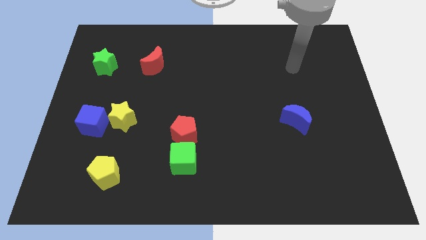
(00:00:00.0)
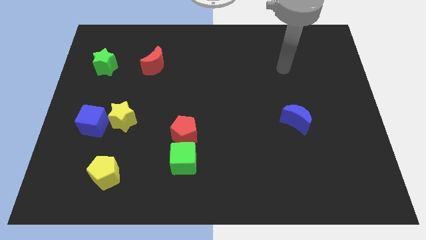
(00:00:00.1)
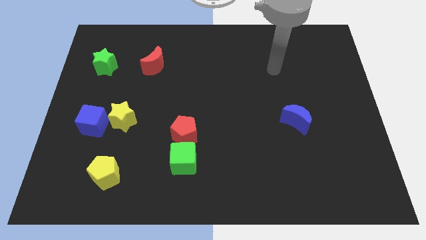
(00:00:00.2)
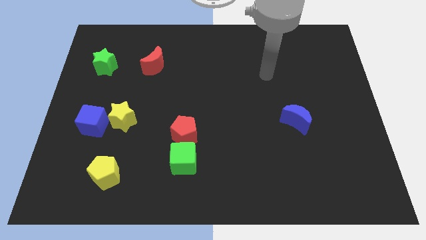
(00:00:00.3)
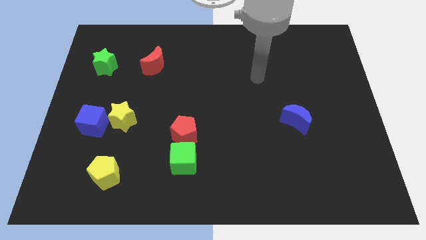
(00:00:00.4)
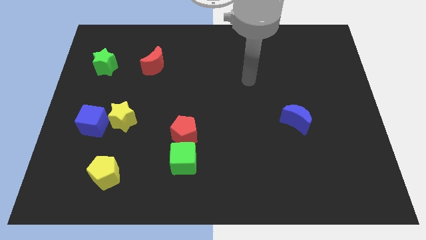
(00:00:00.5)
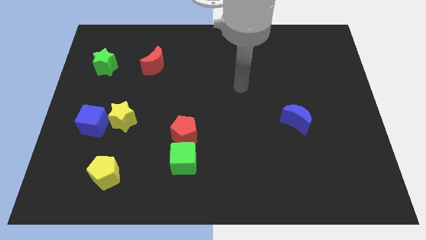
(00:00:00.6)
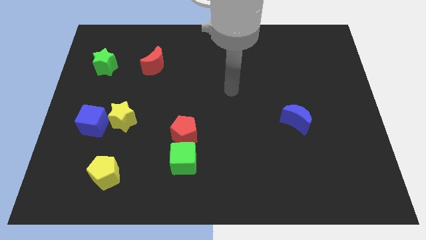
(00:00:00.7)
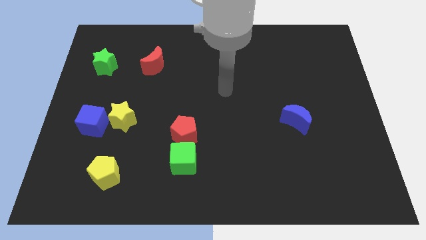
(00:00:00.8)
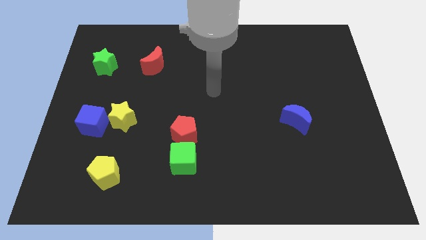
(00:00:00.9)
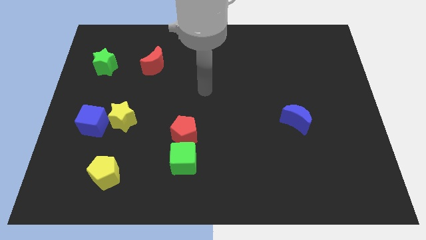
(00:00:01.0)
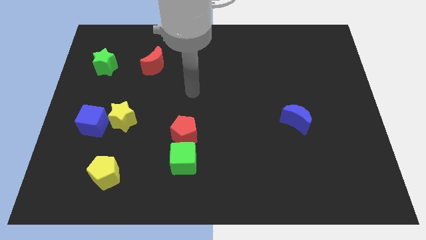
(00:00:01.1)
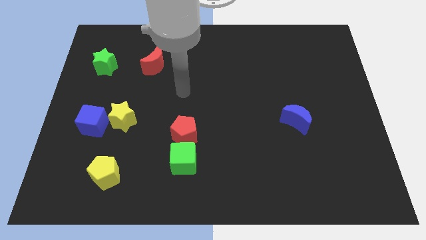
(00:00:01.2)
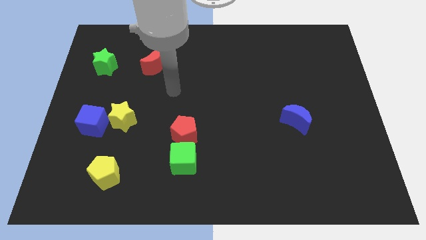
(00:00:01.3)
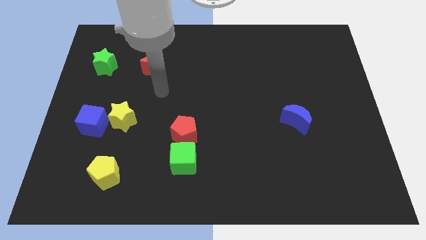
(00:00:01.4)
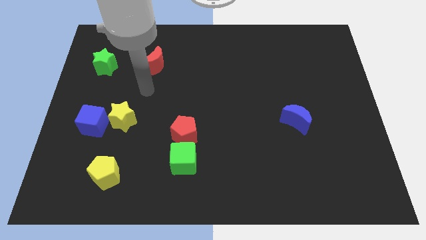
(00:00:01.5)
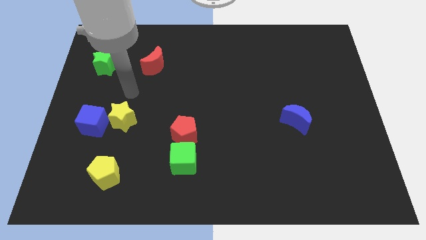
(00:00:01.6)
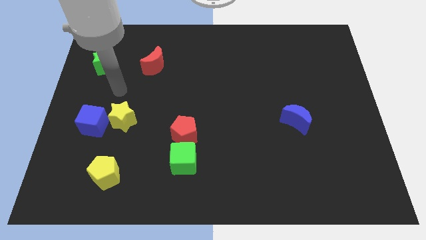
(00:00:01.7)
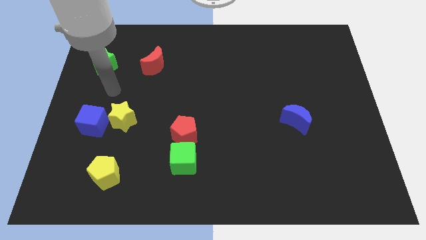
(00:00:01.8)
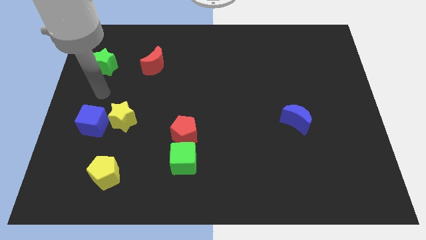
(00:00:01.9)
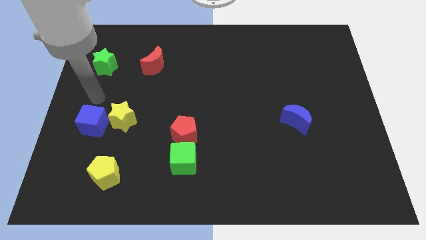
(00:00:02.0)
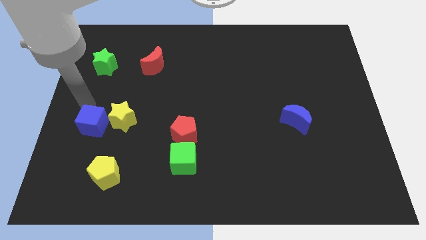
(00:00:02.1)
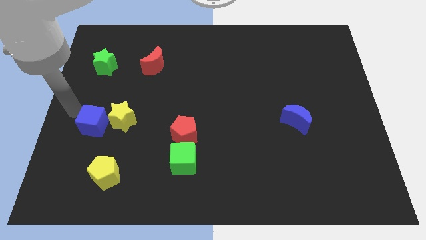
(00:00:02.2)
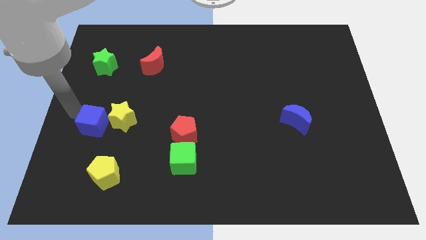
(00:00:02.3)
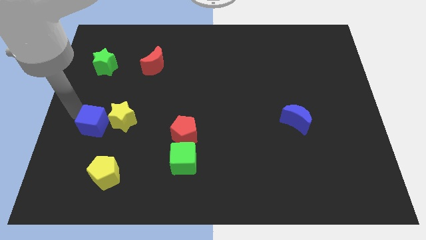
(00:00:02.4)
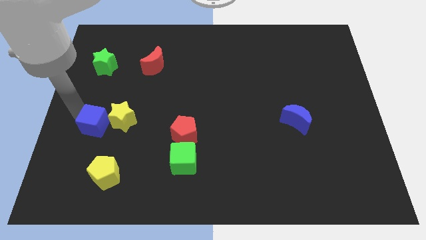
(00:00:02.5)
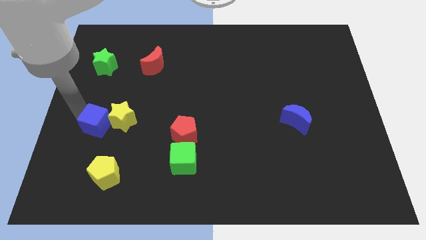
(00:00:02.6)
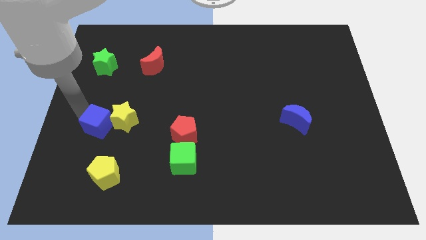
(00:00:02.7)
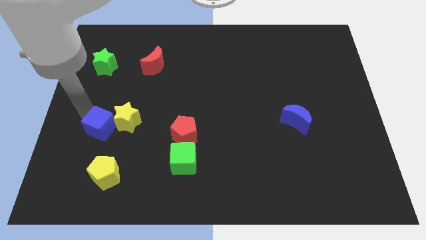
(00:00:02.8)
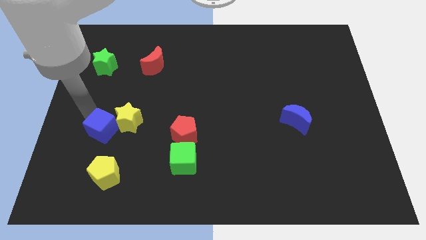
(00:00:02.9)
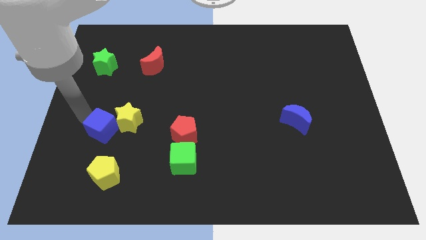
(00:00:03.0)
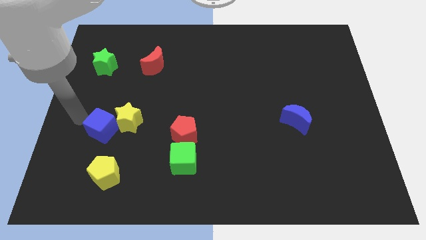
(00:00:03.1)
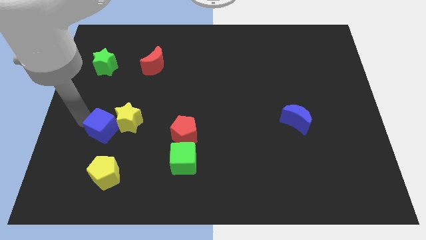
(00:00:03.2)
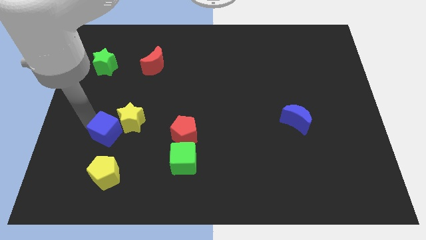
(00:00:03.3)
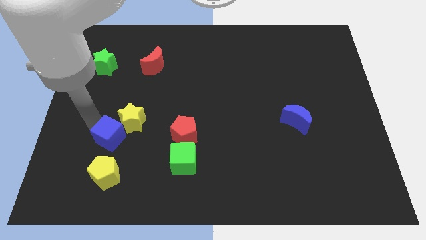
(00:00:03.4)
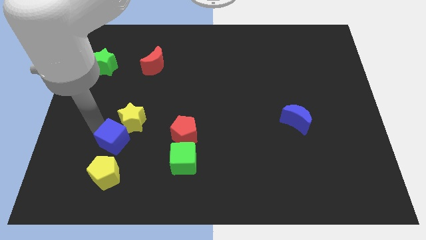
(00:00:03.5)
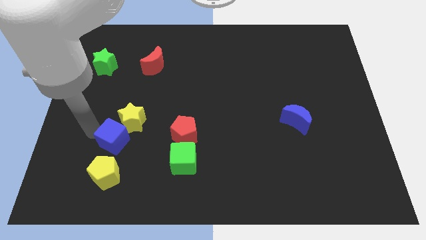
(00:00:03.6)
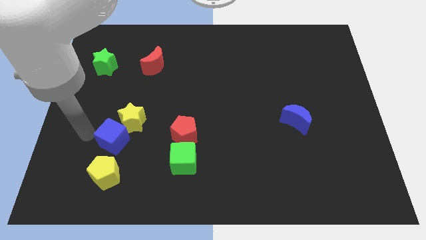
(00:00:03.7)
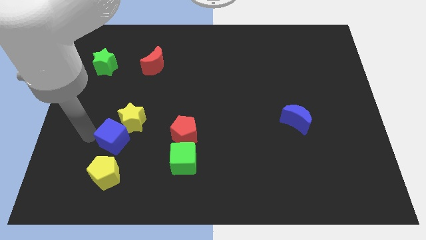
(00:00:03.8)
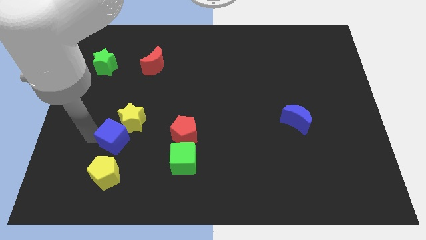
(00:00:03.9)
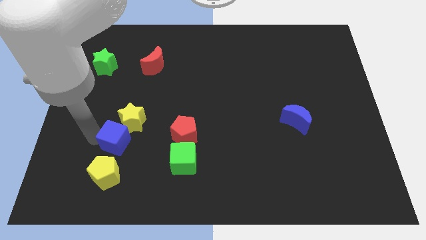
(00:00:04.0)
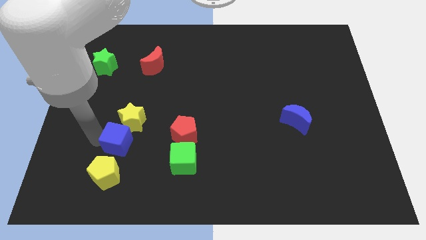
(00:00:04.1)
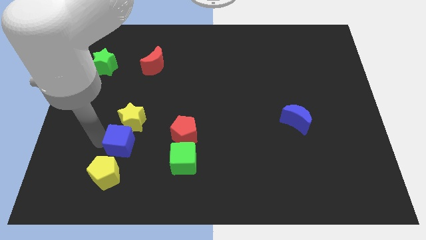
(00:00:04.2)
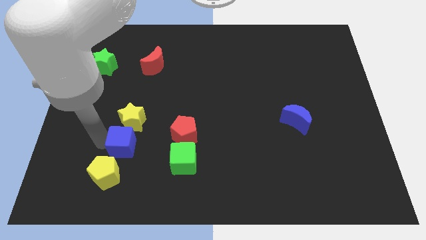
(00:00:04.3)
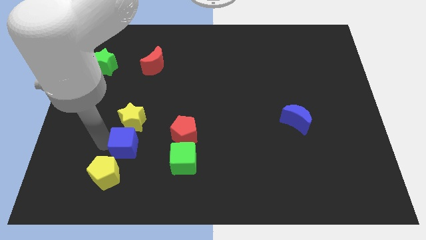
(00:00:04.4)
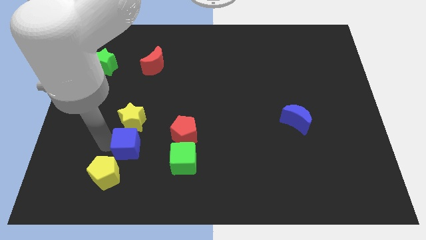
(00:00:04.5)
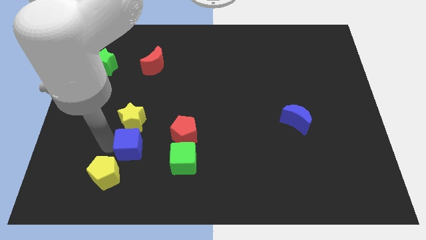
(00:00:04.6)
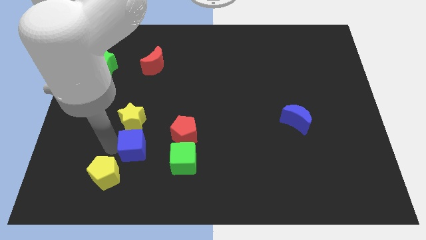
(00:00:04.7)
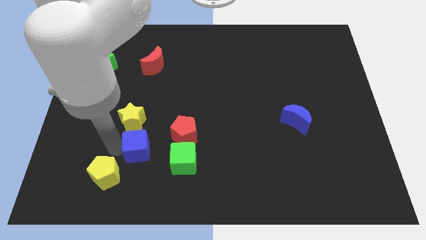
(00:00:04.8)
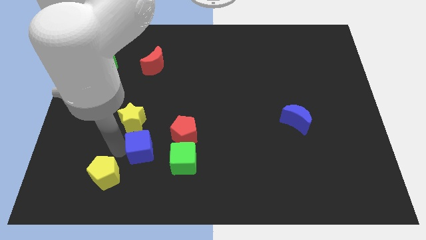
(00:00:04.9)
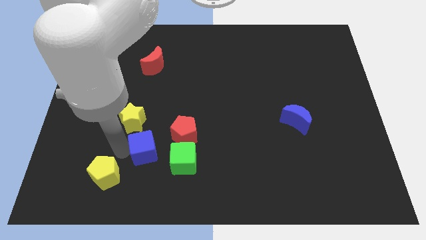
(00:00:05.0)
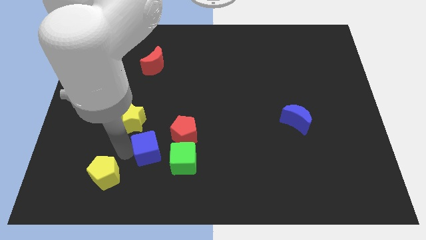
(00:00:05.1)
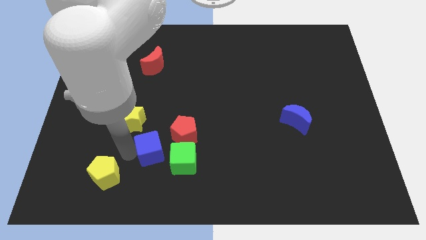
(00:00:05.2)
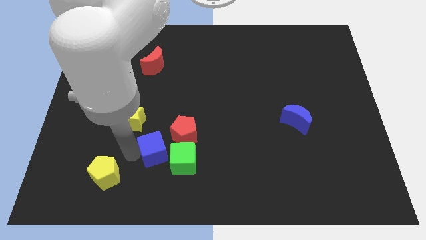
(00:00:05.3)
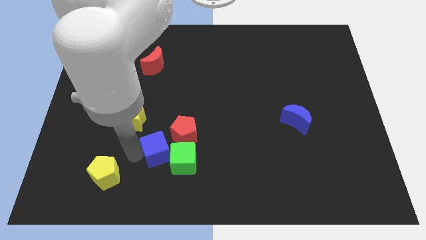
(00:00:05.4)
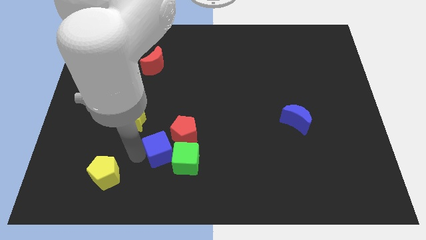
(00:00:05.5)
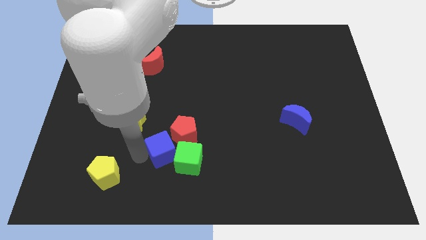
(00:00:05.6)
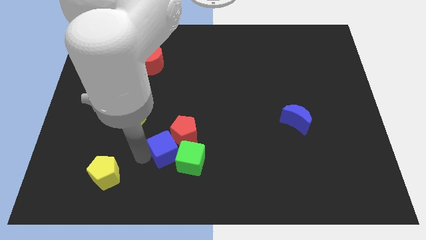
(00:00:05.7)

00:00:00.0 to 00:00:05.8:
slide the blue cube close to the red pentagon

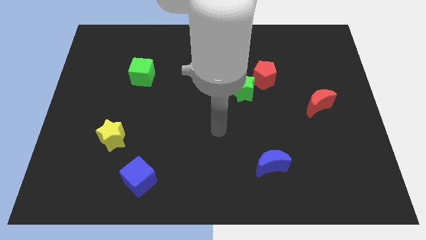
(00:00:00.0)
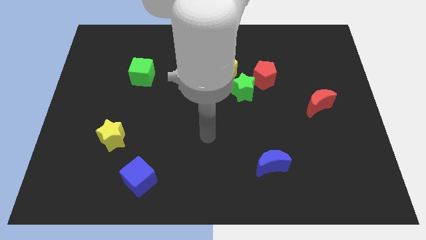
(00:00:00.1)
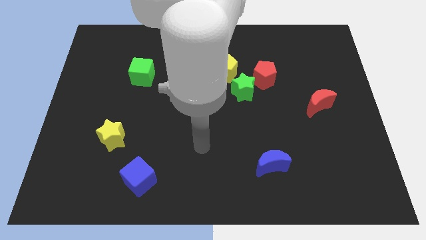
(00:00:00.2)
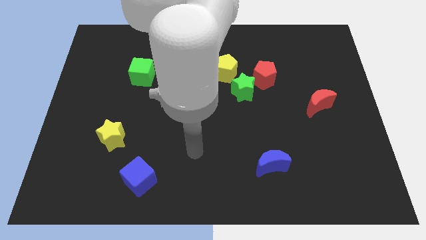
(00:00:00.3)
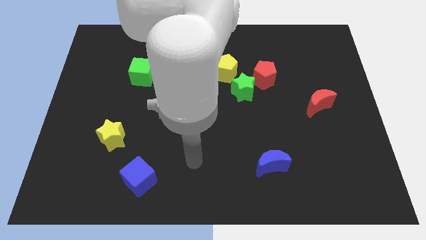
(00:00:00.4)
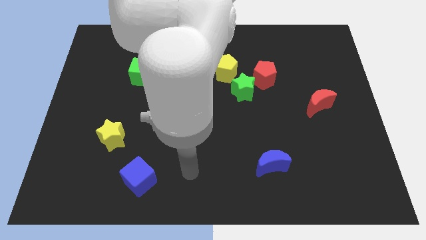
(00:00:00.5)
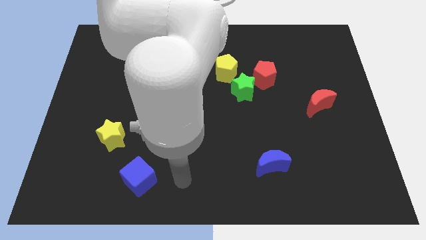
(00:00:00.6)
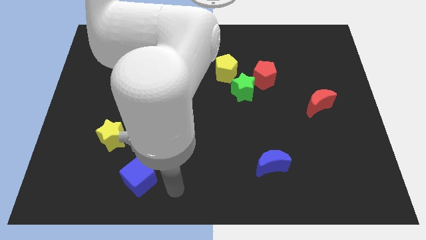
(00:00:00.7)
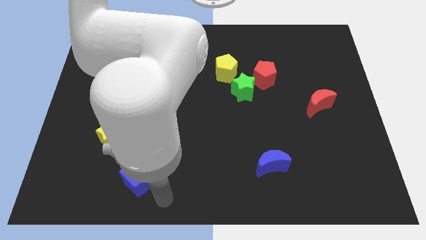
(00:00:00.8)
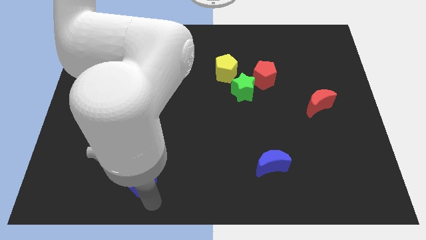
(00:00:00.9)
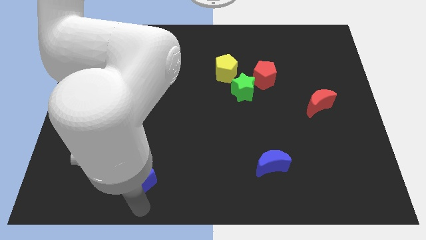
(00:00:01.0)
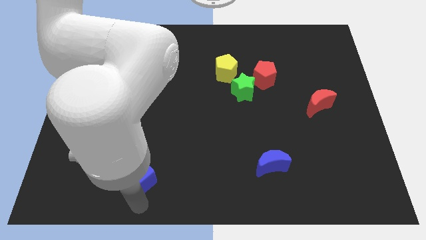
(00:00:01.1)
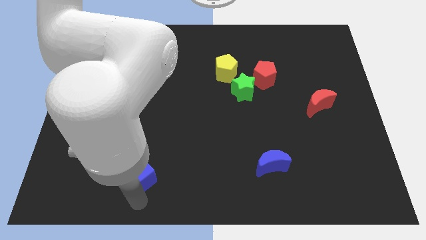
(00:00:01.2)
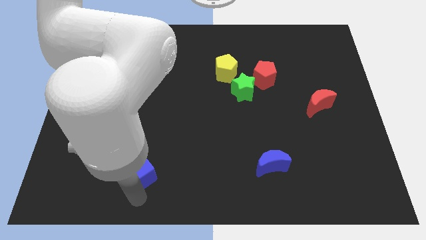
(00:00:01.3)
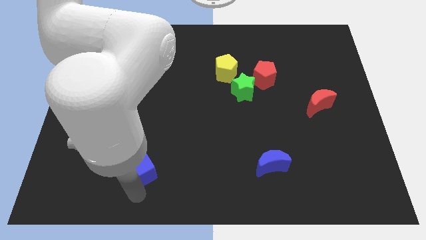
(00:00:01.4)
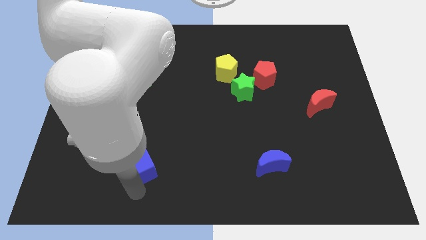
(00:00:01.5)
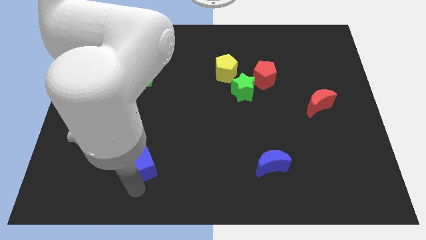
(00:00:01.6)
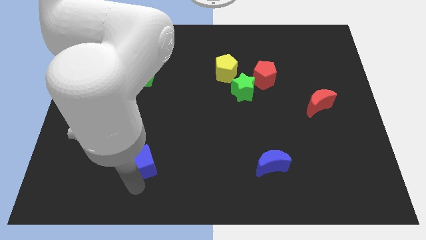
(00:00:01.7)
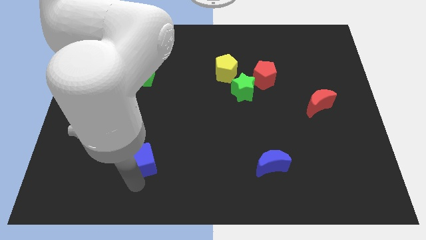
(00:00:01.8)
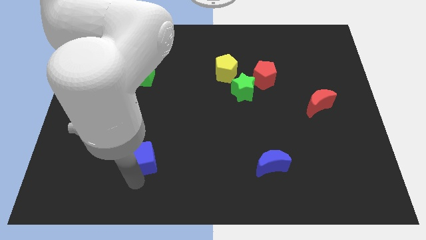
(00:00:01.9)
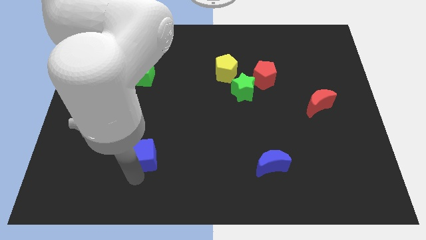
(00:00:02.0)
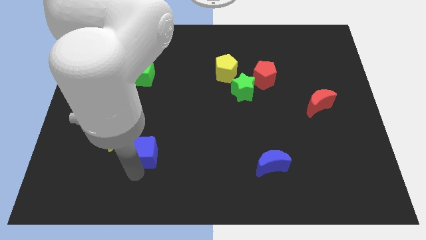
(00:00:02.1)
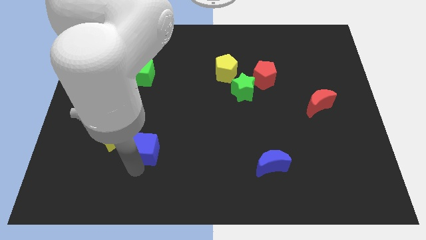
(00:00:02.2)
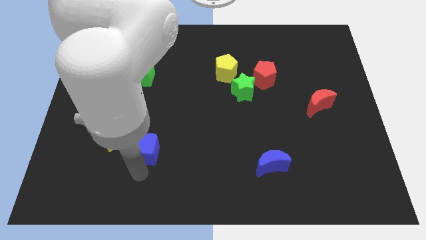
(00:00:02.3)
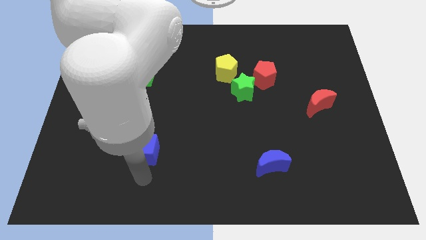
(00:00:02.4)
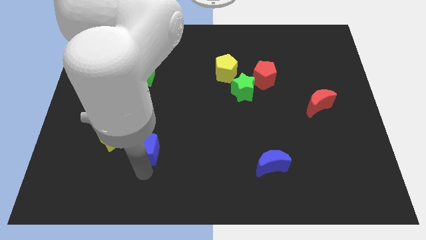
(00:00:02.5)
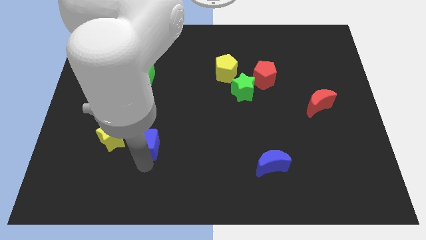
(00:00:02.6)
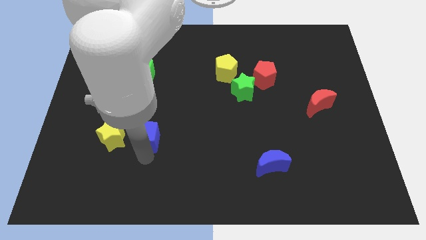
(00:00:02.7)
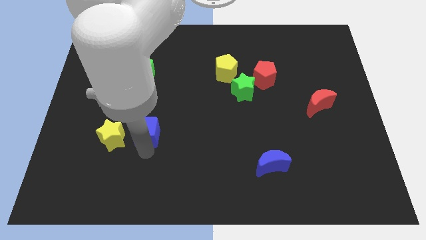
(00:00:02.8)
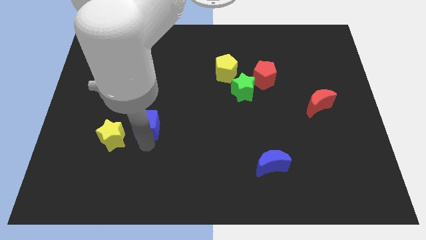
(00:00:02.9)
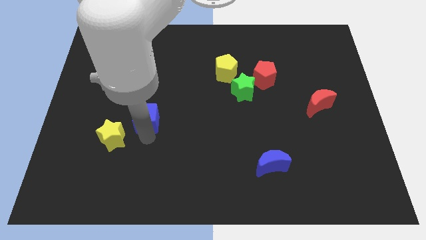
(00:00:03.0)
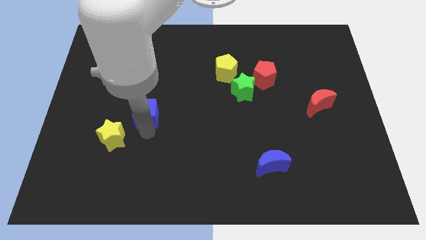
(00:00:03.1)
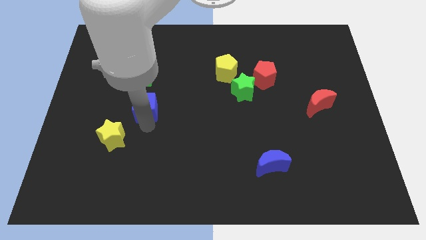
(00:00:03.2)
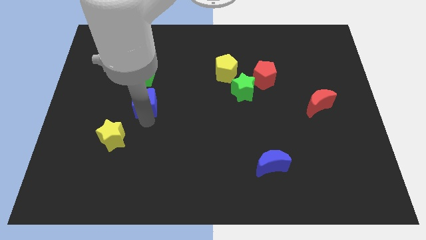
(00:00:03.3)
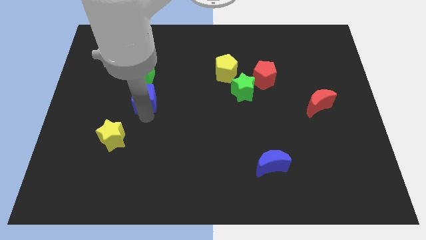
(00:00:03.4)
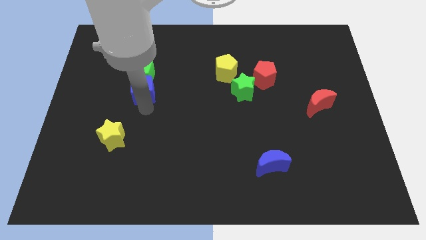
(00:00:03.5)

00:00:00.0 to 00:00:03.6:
move the blue cube next to the green cube
